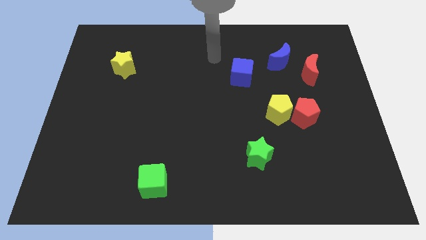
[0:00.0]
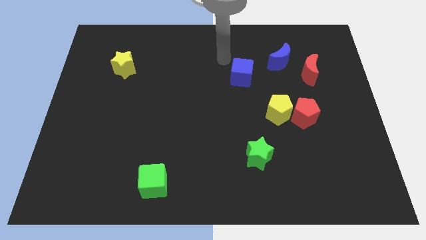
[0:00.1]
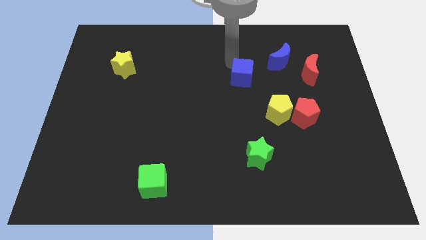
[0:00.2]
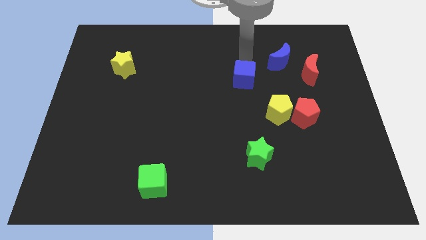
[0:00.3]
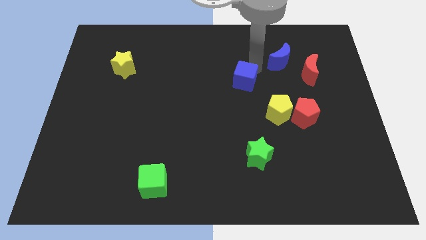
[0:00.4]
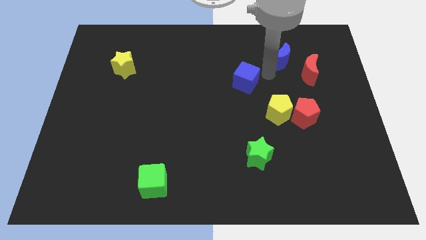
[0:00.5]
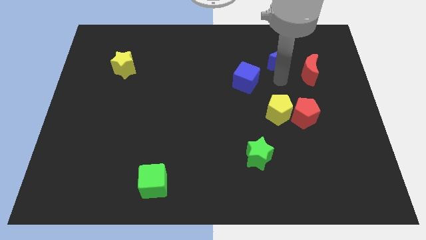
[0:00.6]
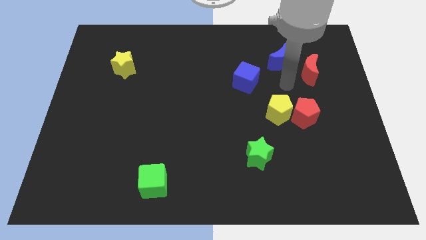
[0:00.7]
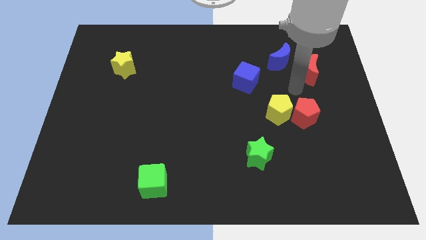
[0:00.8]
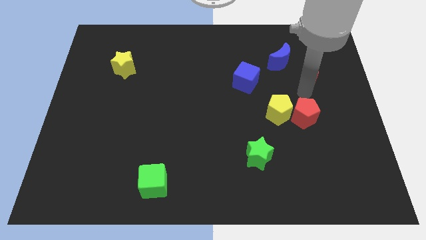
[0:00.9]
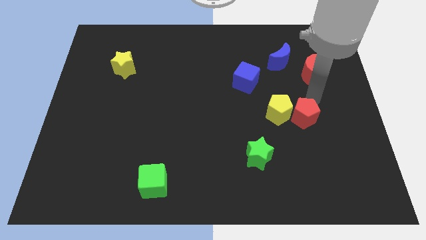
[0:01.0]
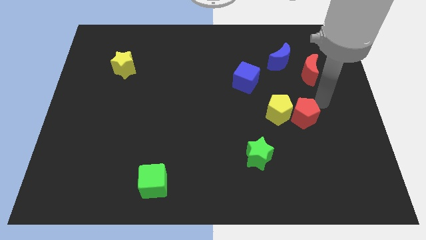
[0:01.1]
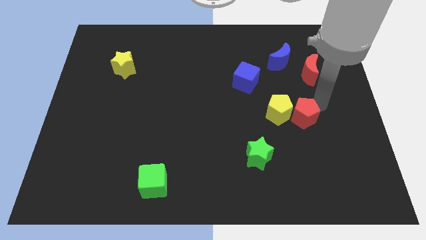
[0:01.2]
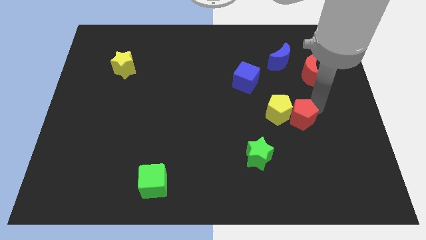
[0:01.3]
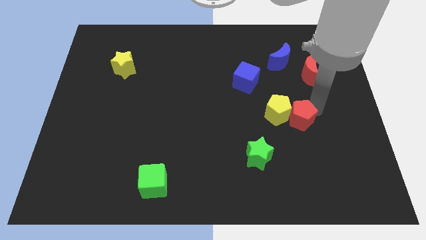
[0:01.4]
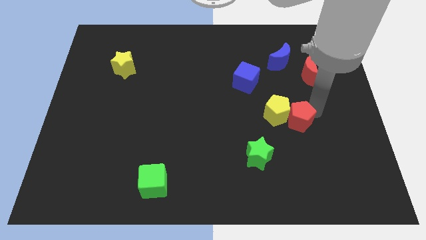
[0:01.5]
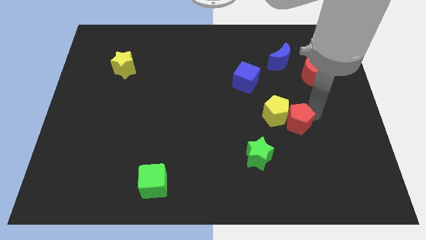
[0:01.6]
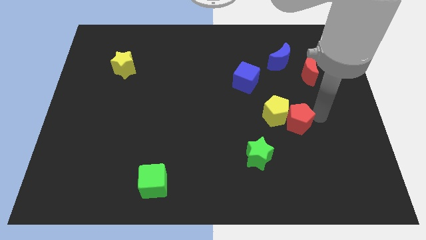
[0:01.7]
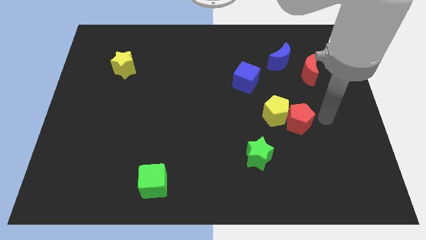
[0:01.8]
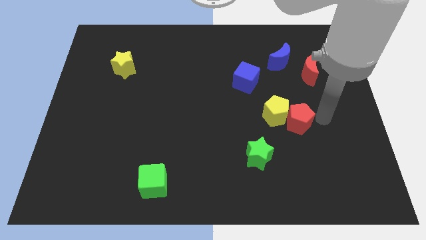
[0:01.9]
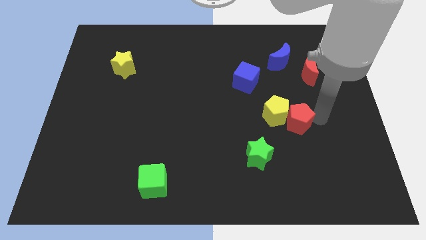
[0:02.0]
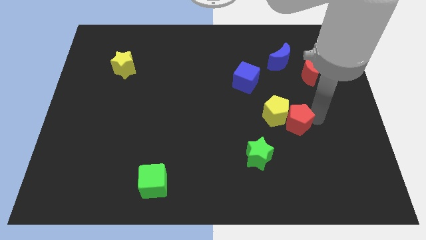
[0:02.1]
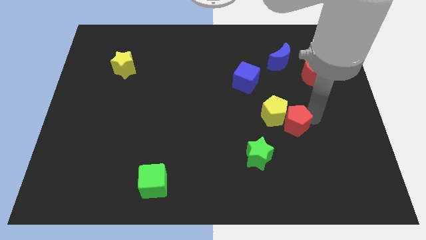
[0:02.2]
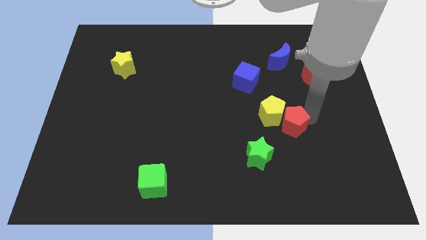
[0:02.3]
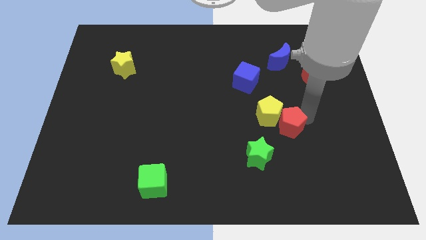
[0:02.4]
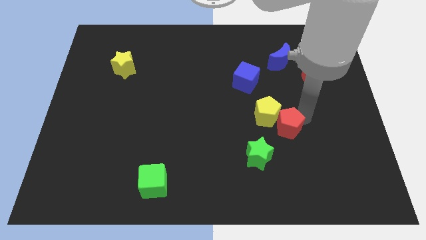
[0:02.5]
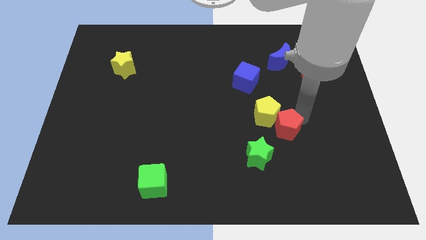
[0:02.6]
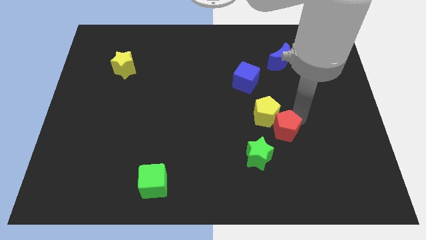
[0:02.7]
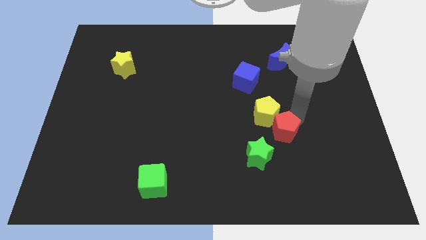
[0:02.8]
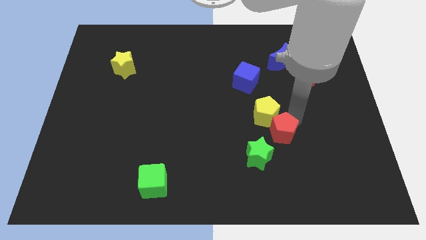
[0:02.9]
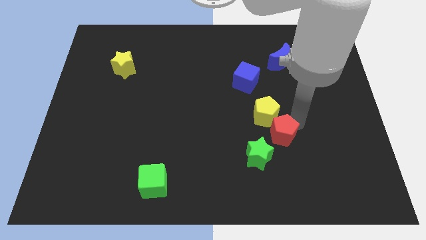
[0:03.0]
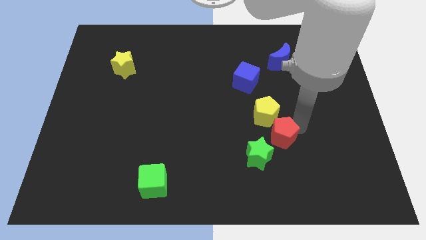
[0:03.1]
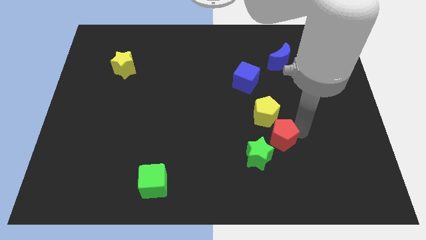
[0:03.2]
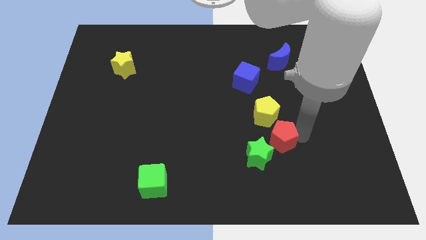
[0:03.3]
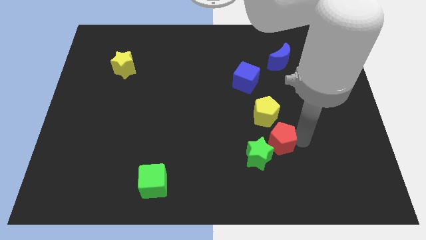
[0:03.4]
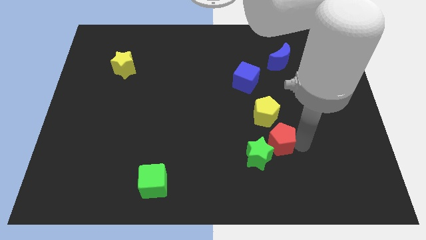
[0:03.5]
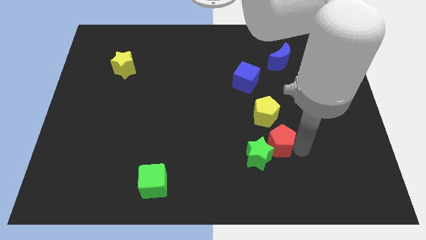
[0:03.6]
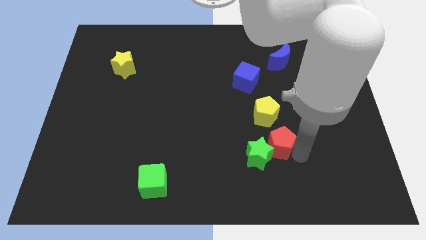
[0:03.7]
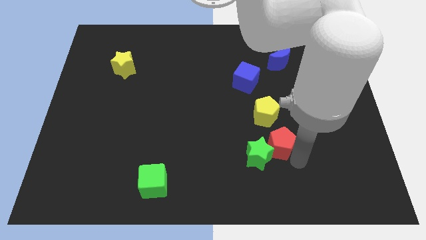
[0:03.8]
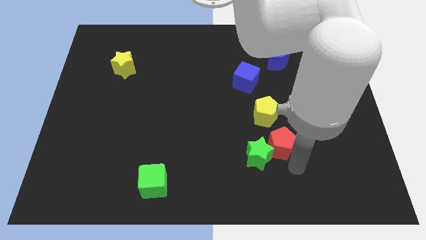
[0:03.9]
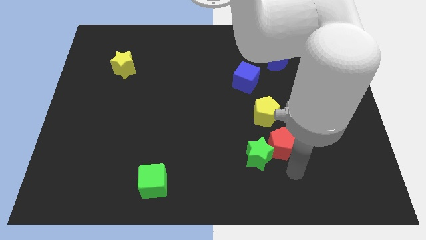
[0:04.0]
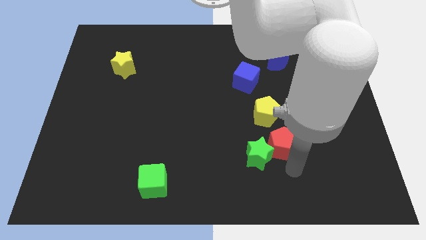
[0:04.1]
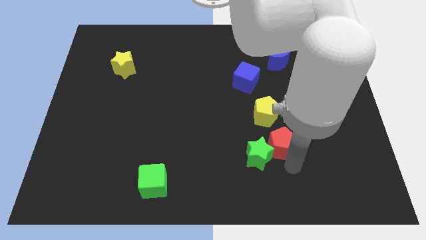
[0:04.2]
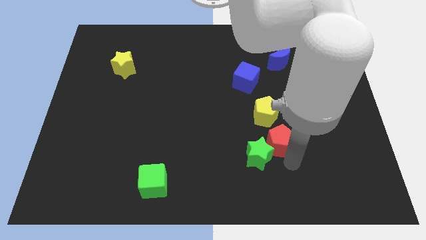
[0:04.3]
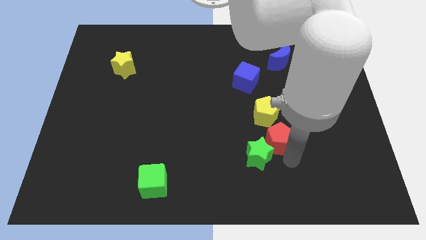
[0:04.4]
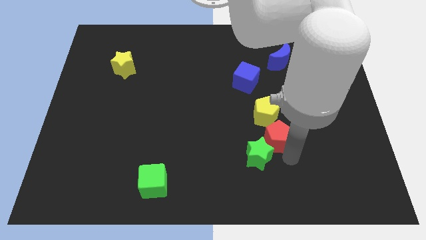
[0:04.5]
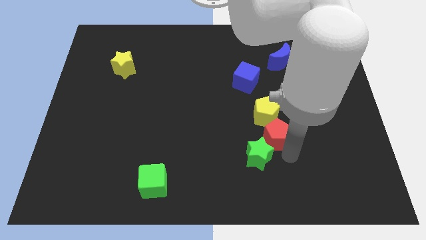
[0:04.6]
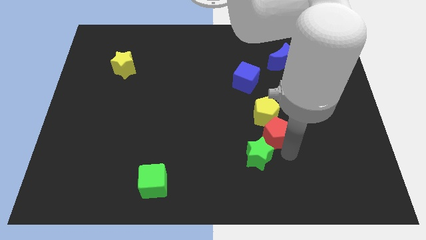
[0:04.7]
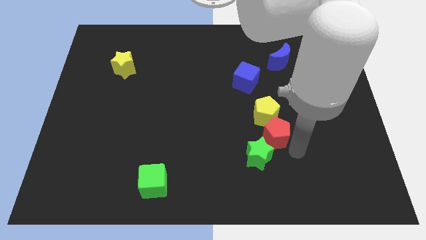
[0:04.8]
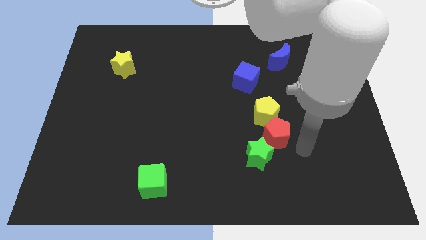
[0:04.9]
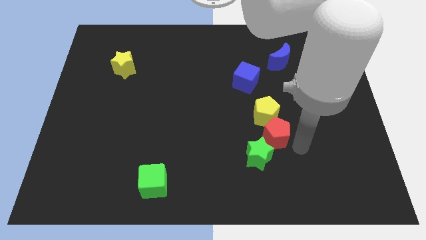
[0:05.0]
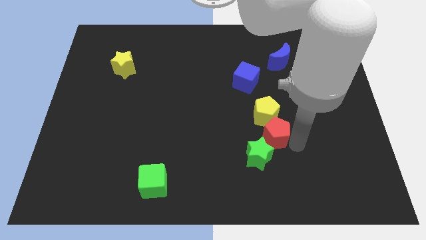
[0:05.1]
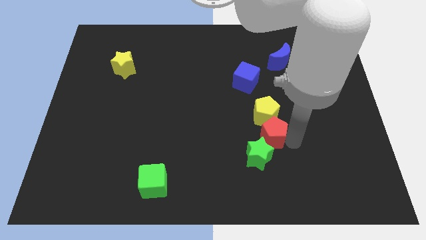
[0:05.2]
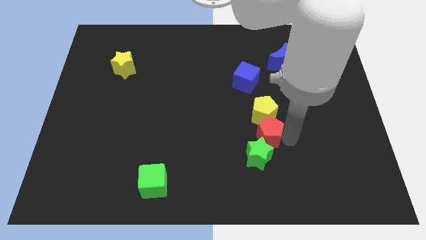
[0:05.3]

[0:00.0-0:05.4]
push the red pentagon to the left a little bit

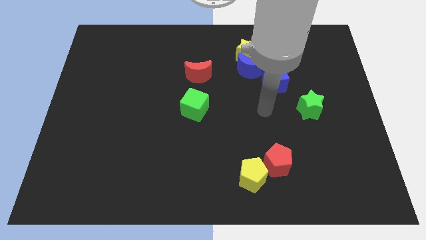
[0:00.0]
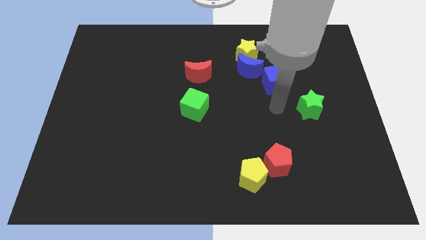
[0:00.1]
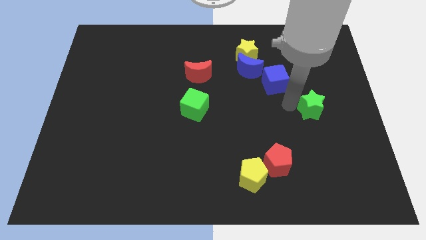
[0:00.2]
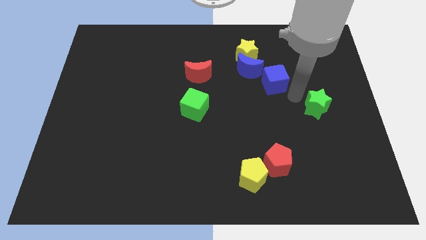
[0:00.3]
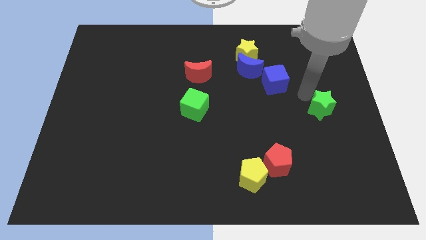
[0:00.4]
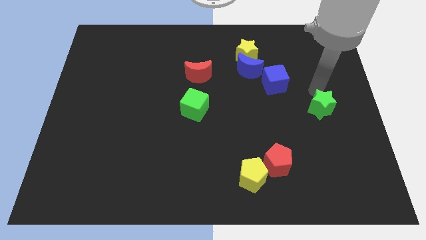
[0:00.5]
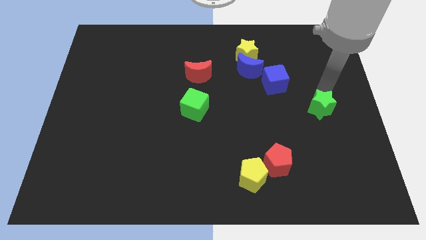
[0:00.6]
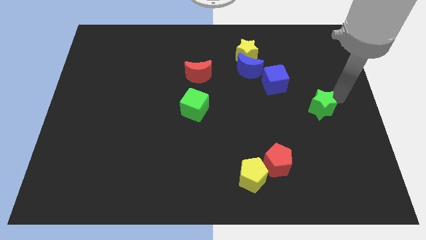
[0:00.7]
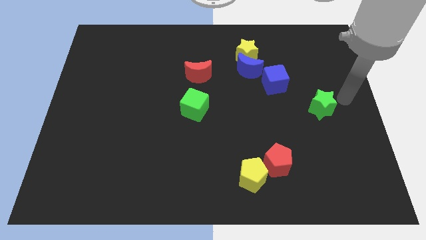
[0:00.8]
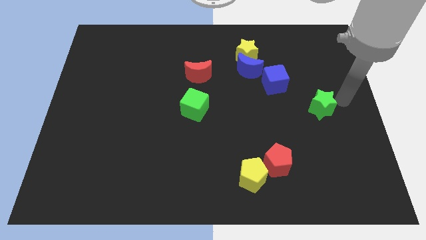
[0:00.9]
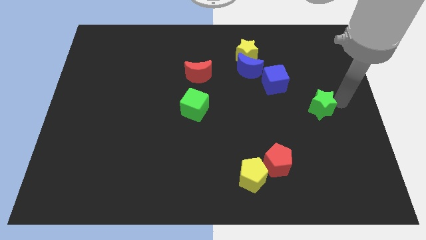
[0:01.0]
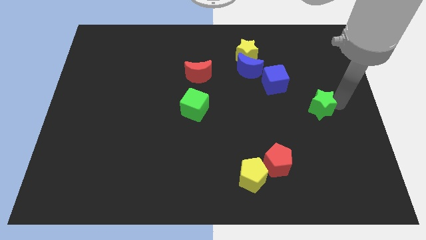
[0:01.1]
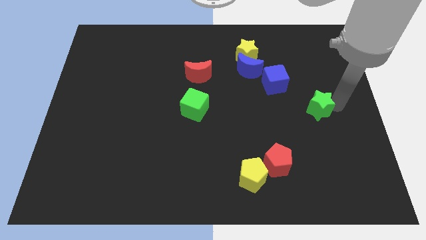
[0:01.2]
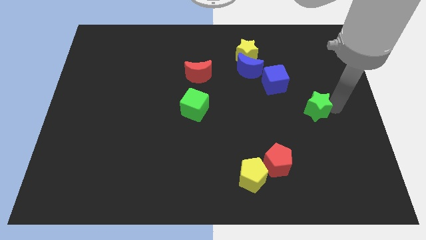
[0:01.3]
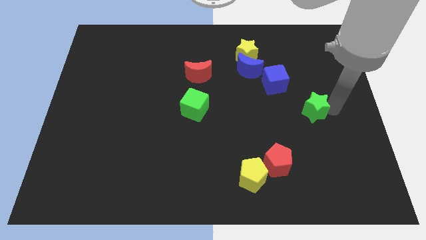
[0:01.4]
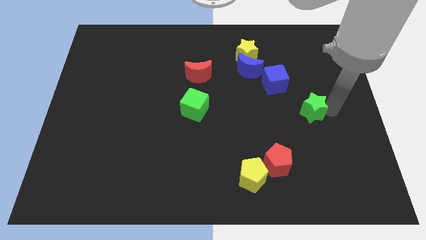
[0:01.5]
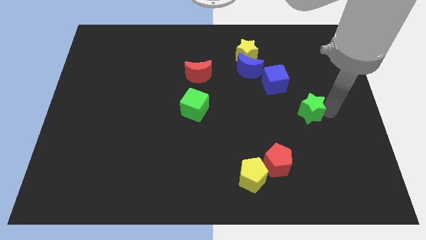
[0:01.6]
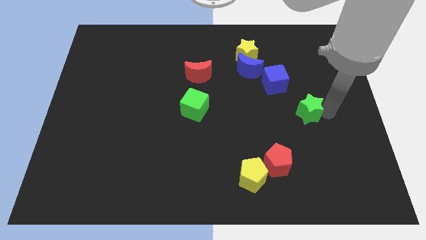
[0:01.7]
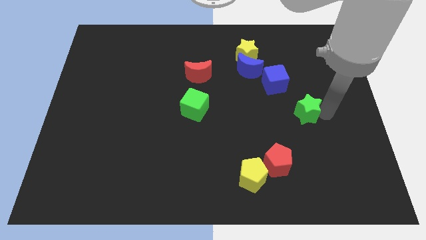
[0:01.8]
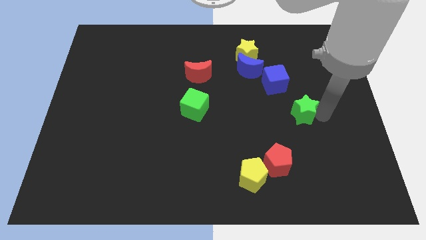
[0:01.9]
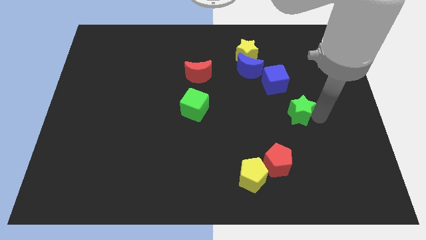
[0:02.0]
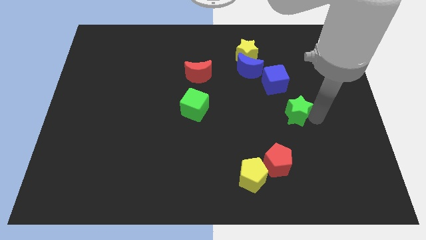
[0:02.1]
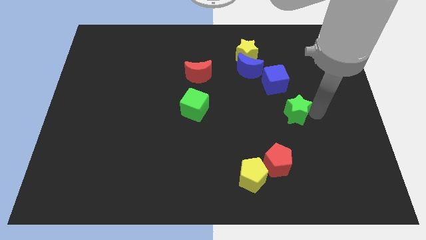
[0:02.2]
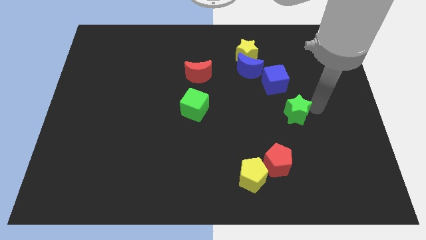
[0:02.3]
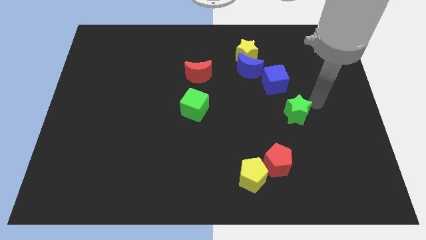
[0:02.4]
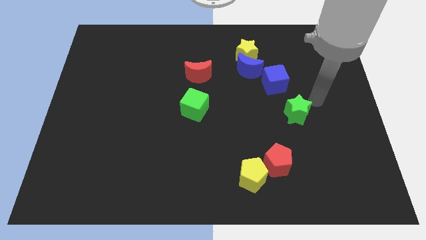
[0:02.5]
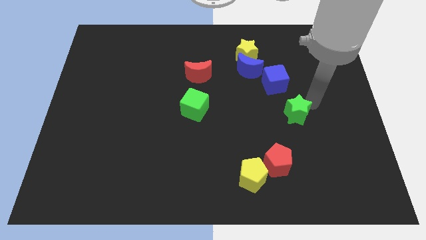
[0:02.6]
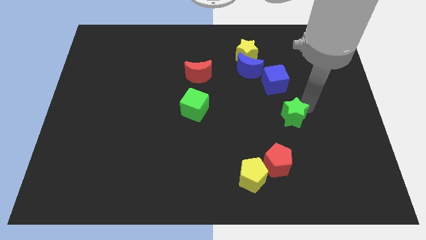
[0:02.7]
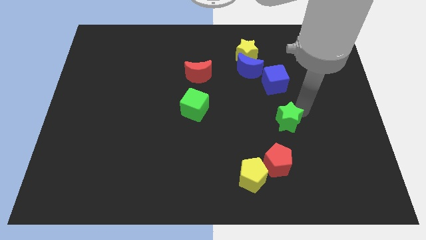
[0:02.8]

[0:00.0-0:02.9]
slightly move the green star down and left
